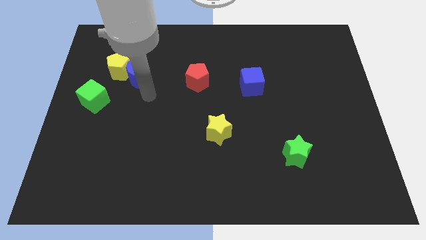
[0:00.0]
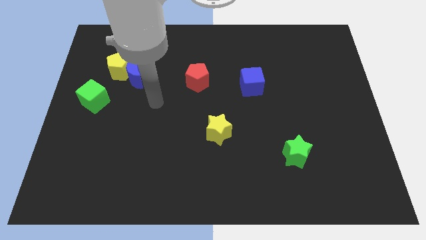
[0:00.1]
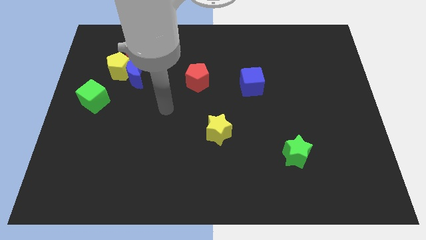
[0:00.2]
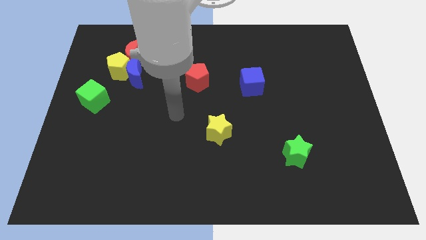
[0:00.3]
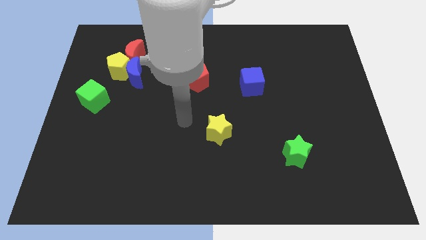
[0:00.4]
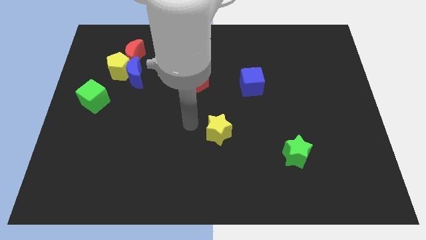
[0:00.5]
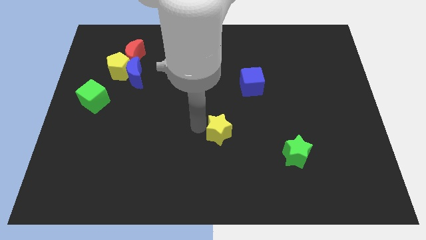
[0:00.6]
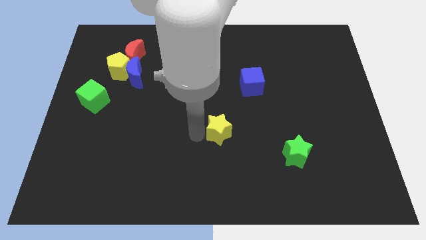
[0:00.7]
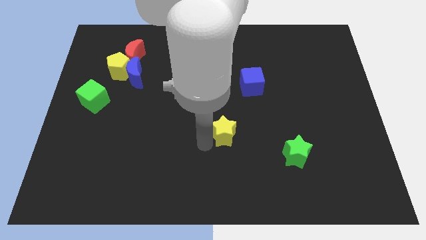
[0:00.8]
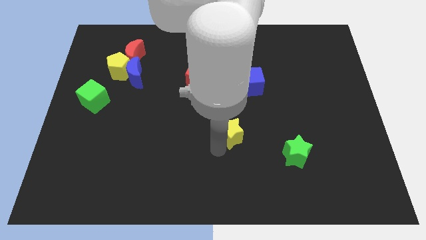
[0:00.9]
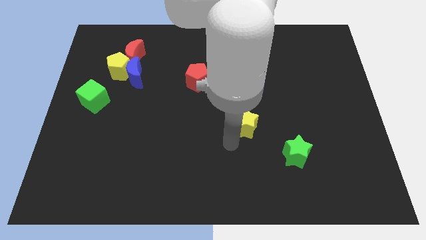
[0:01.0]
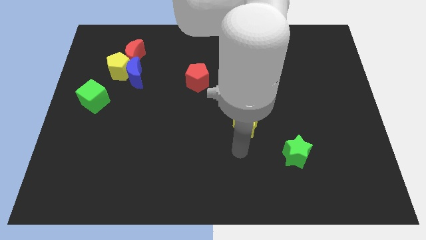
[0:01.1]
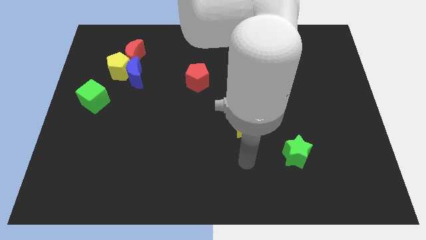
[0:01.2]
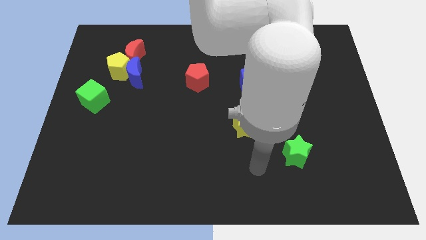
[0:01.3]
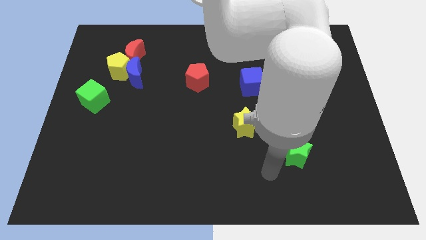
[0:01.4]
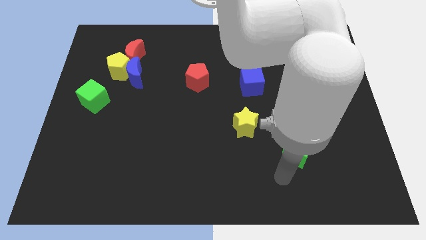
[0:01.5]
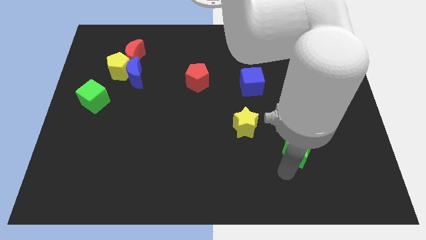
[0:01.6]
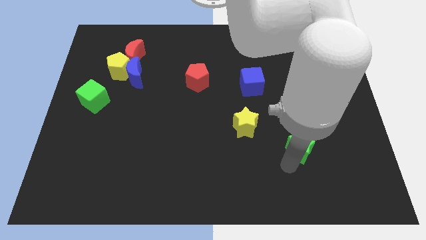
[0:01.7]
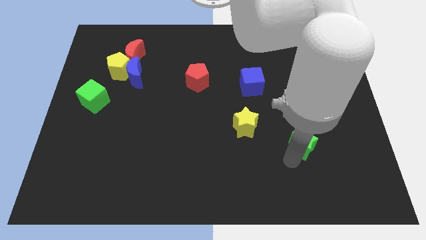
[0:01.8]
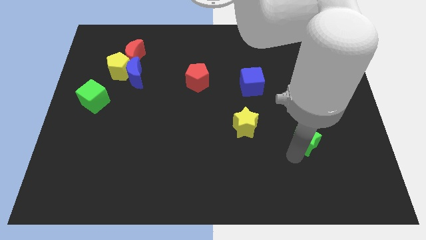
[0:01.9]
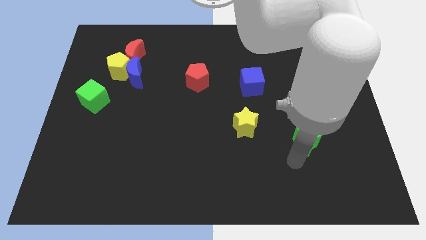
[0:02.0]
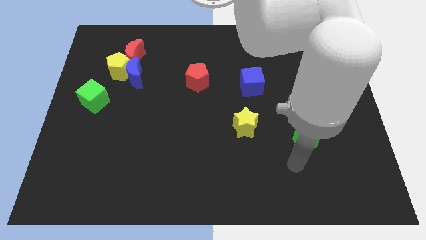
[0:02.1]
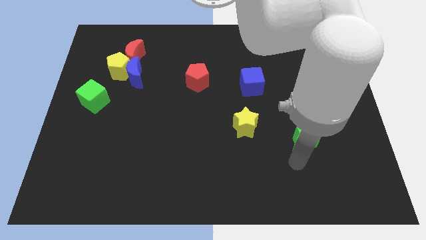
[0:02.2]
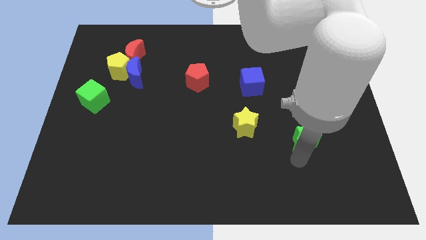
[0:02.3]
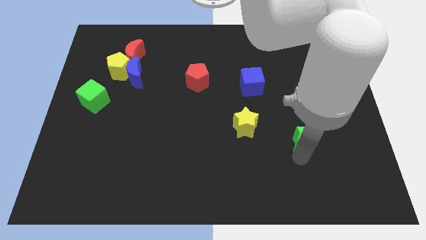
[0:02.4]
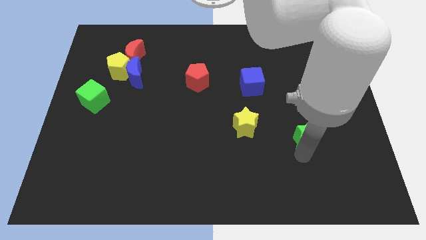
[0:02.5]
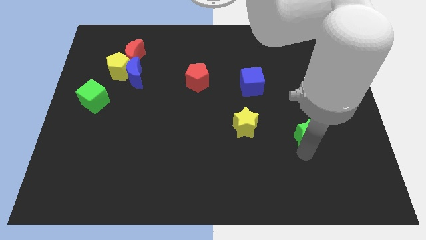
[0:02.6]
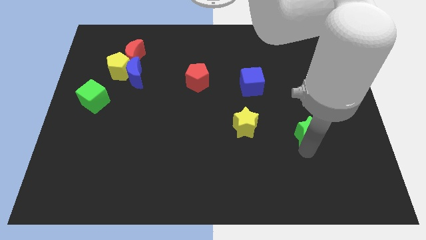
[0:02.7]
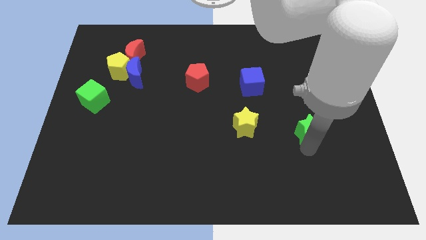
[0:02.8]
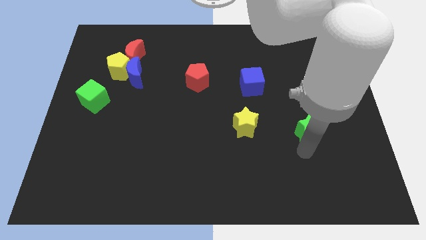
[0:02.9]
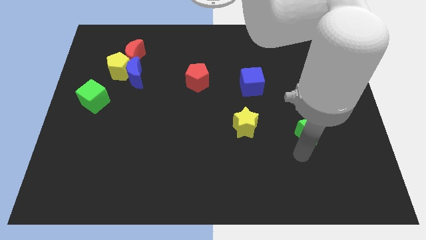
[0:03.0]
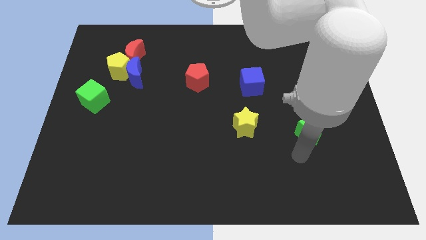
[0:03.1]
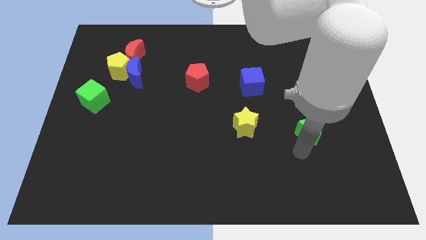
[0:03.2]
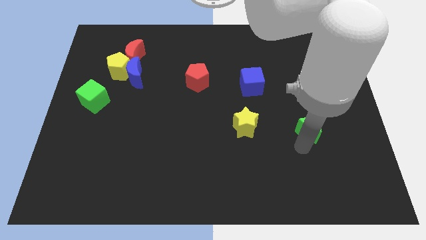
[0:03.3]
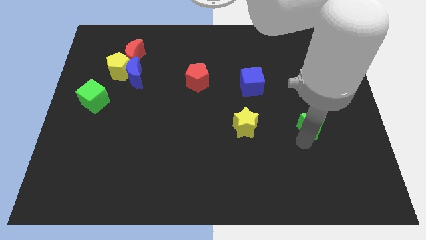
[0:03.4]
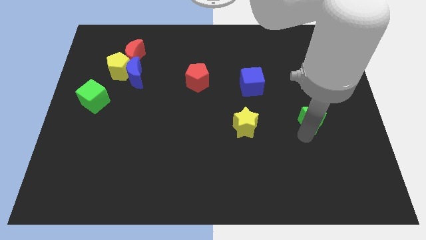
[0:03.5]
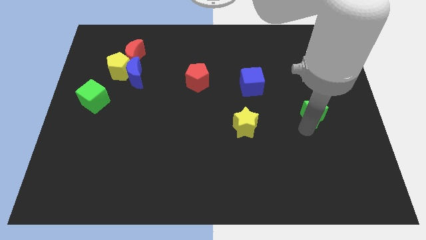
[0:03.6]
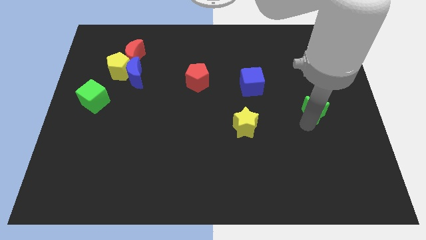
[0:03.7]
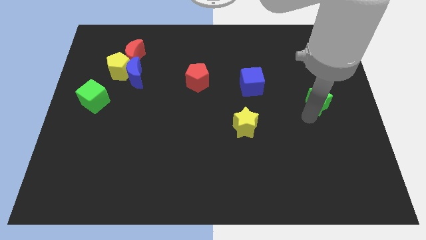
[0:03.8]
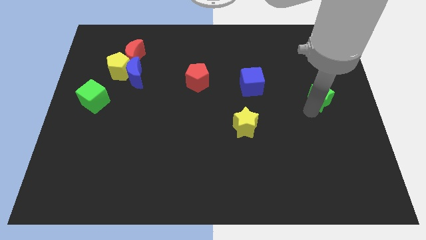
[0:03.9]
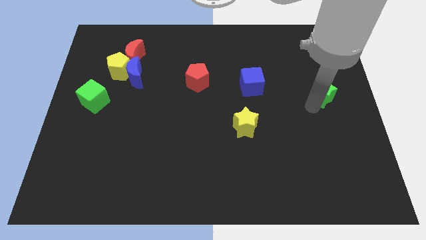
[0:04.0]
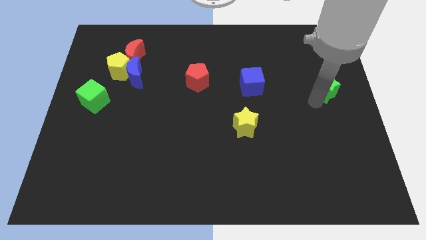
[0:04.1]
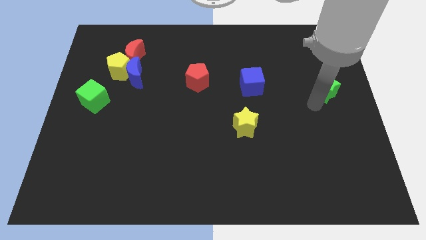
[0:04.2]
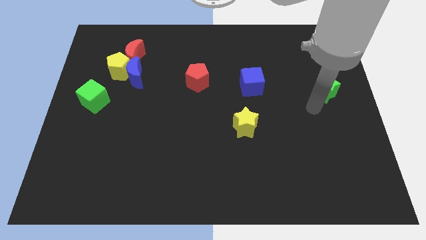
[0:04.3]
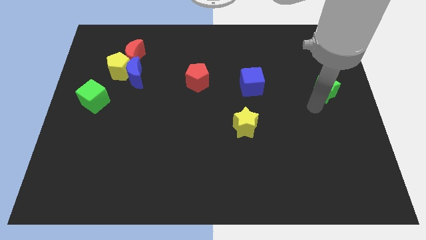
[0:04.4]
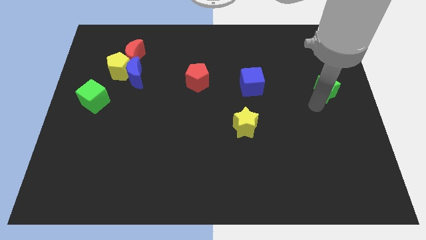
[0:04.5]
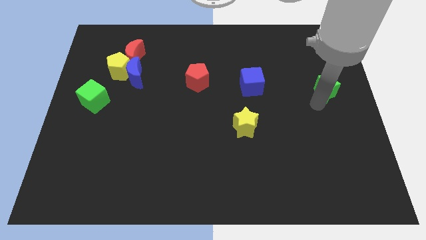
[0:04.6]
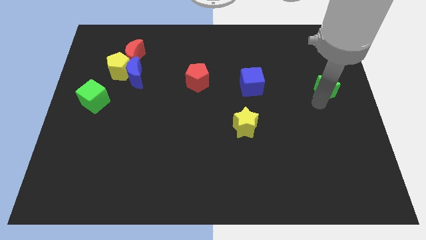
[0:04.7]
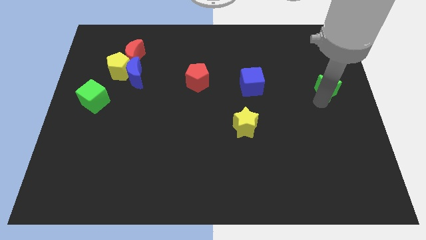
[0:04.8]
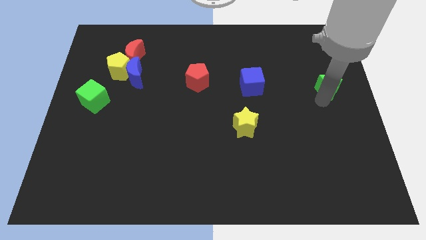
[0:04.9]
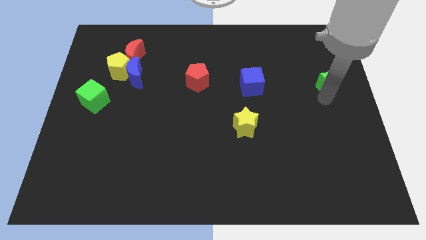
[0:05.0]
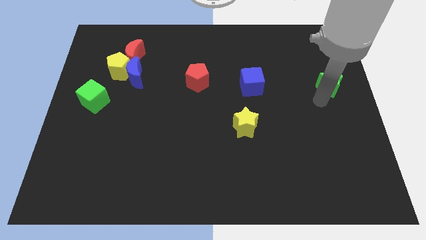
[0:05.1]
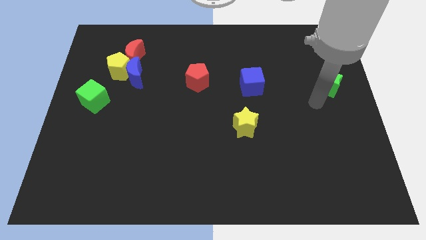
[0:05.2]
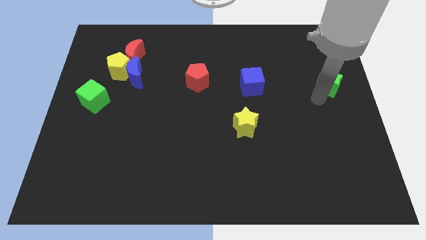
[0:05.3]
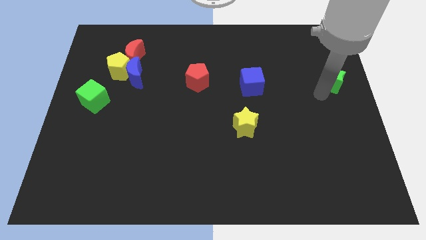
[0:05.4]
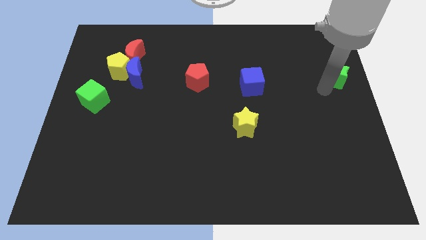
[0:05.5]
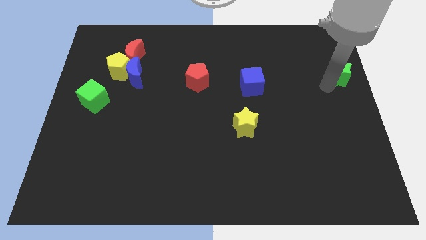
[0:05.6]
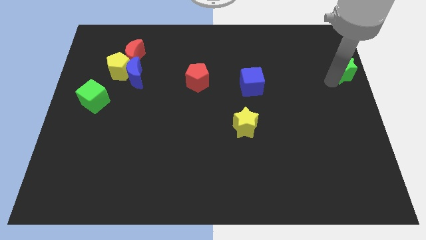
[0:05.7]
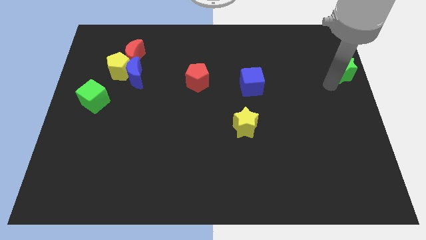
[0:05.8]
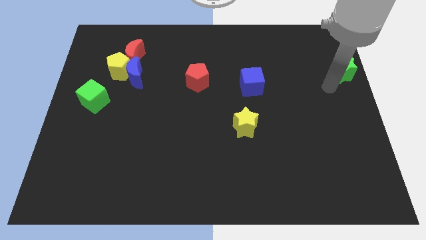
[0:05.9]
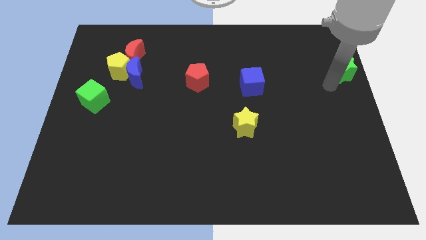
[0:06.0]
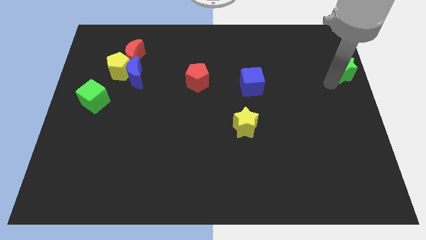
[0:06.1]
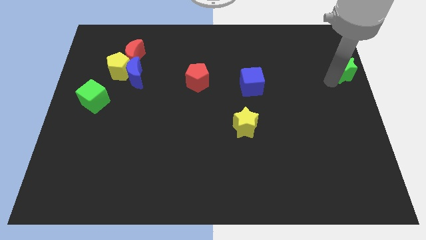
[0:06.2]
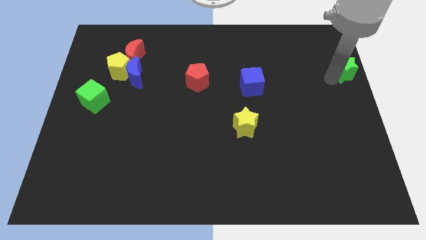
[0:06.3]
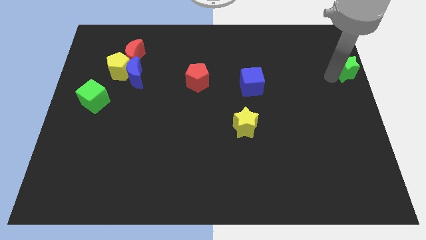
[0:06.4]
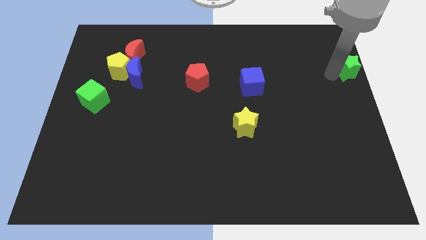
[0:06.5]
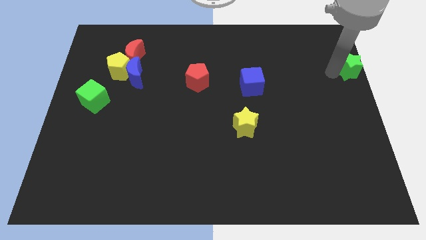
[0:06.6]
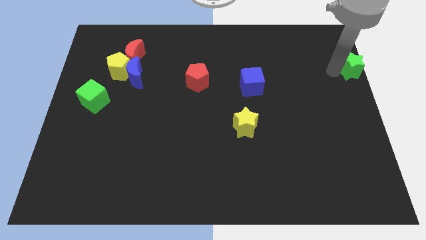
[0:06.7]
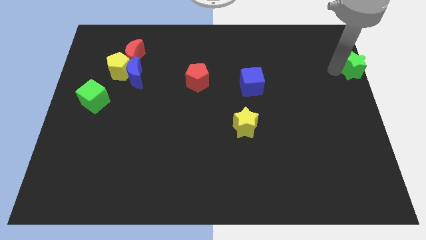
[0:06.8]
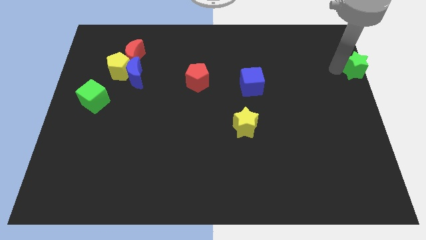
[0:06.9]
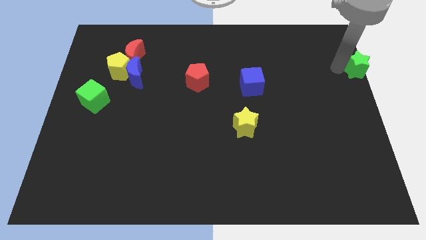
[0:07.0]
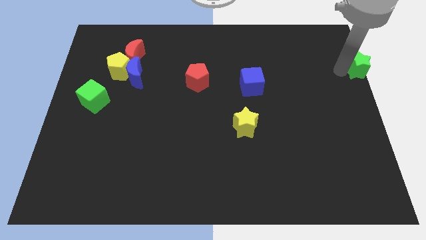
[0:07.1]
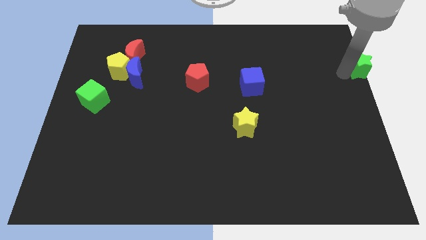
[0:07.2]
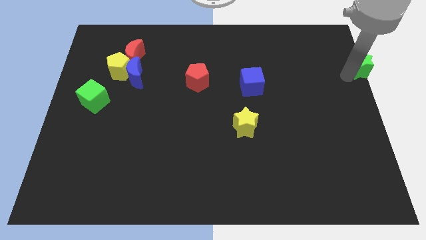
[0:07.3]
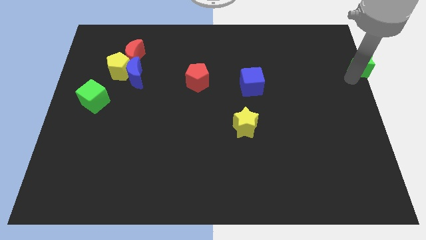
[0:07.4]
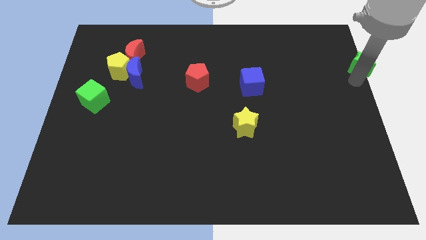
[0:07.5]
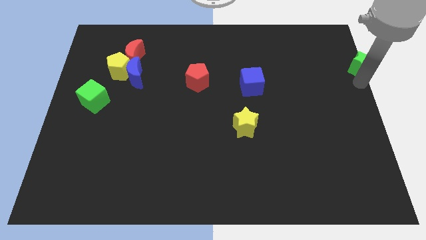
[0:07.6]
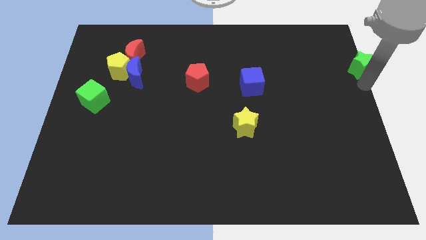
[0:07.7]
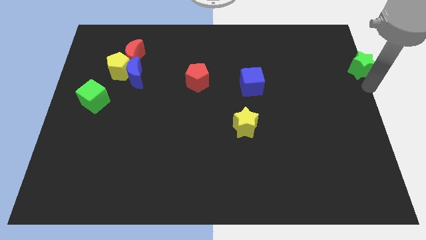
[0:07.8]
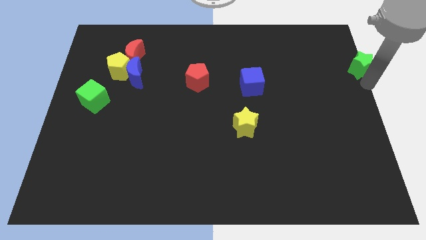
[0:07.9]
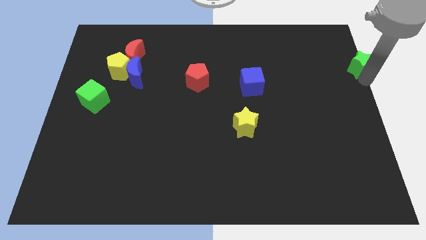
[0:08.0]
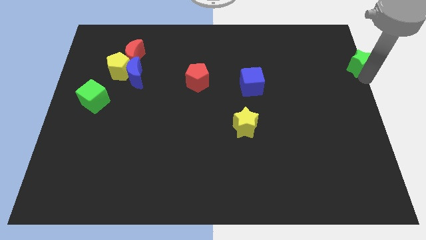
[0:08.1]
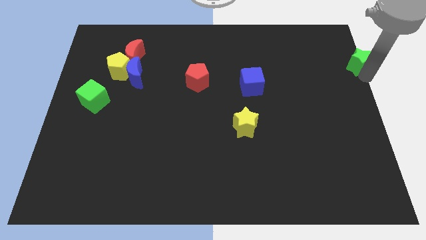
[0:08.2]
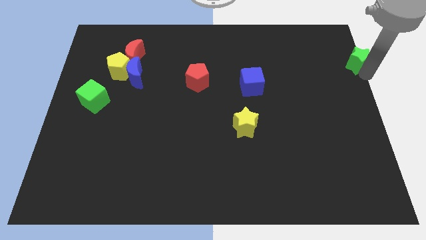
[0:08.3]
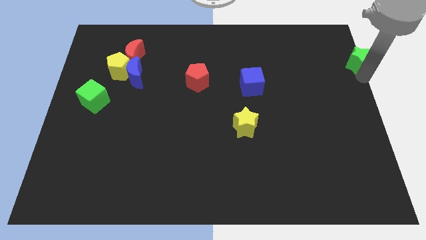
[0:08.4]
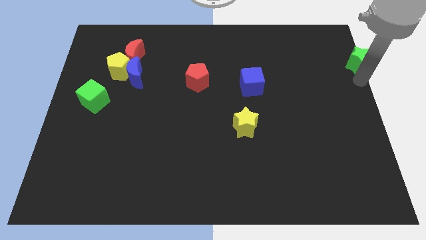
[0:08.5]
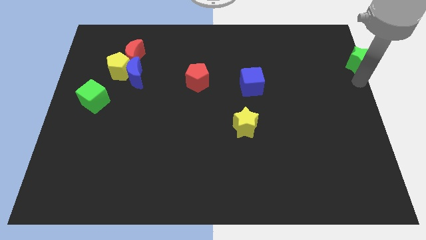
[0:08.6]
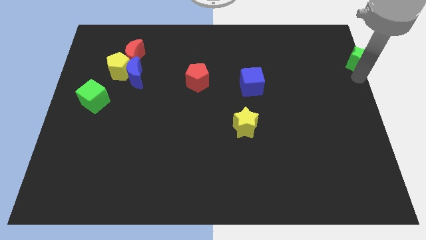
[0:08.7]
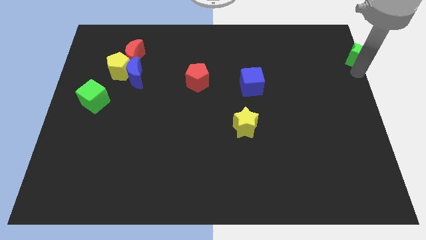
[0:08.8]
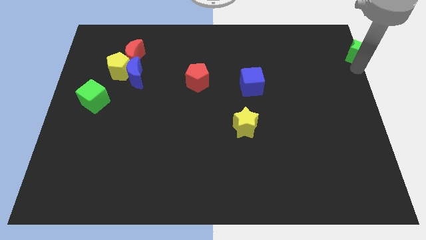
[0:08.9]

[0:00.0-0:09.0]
slide the green star to the top right of the board
